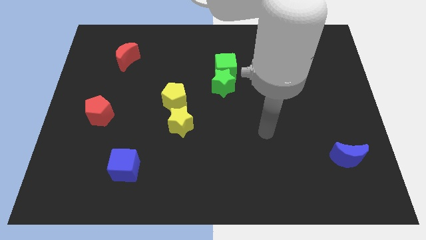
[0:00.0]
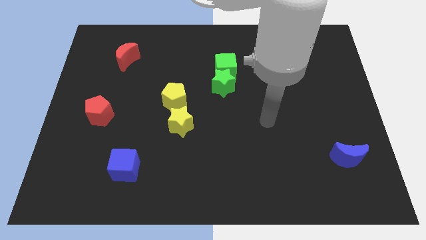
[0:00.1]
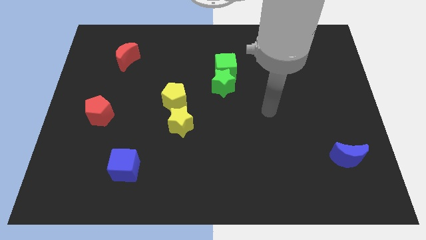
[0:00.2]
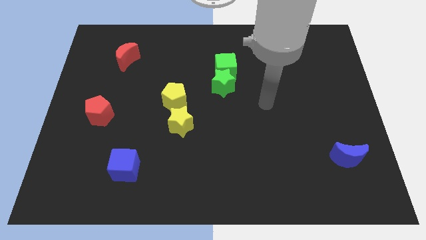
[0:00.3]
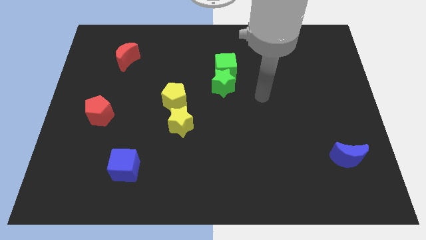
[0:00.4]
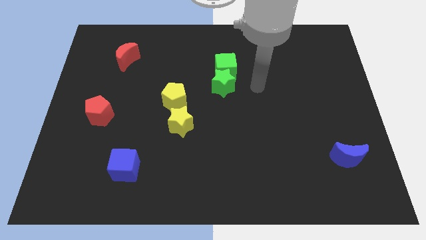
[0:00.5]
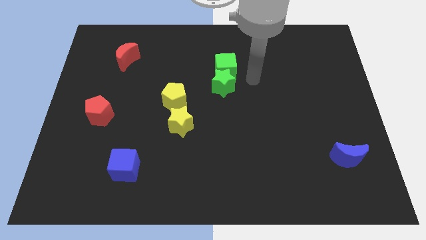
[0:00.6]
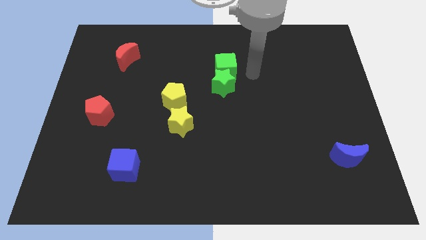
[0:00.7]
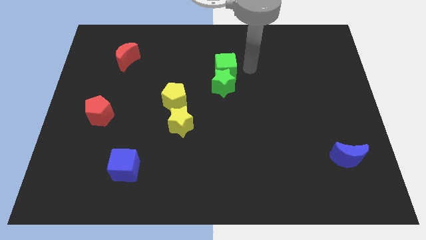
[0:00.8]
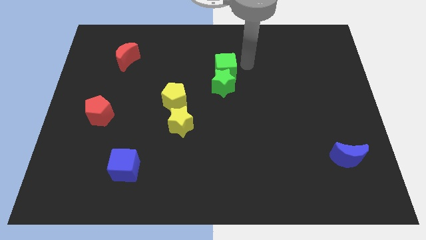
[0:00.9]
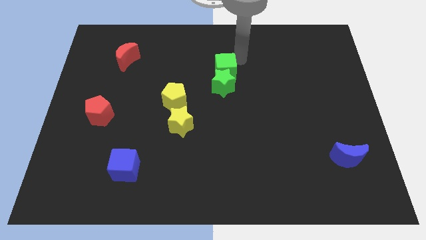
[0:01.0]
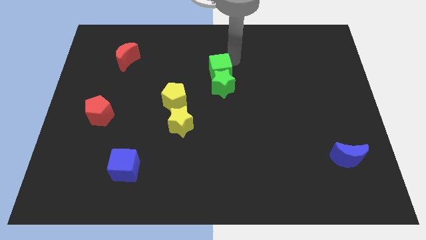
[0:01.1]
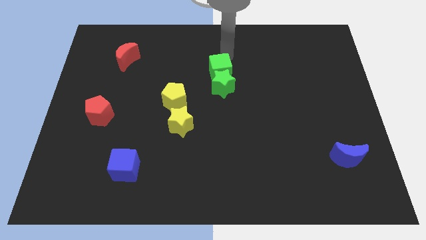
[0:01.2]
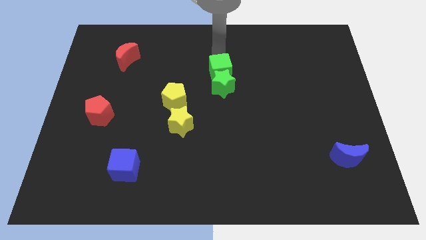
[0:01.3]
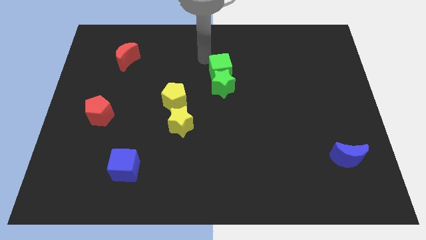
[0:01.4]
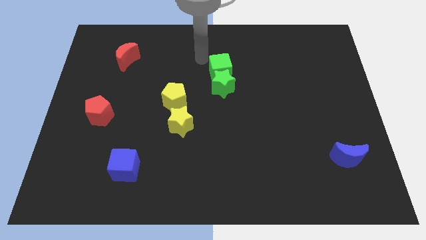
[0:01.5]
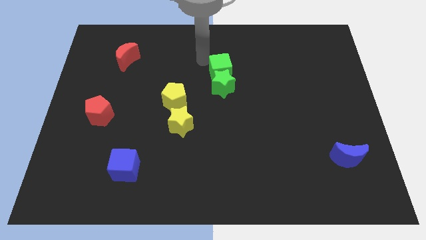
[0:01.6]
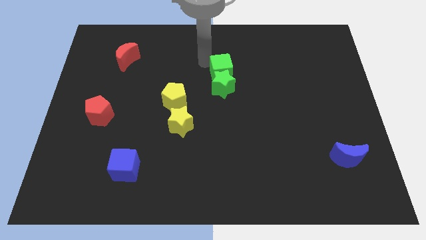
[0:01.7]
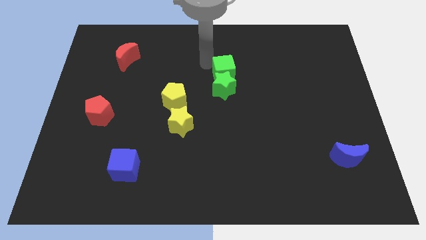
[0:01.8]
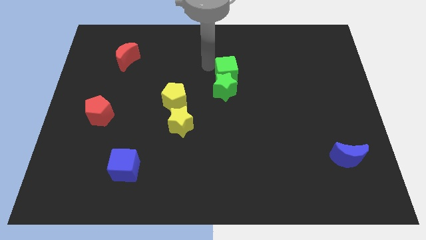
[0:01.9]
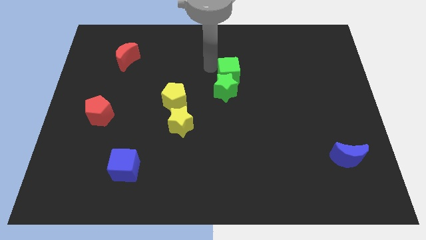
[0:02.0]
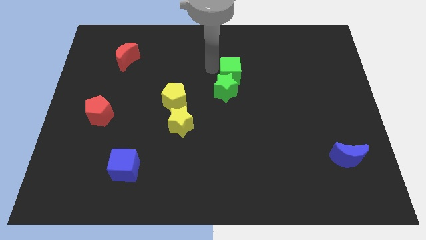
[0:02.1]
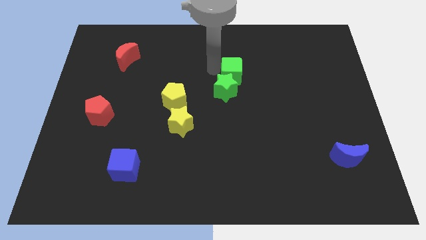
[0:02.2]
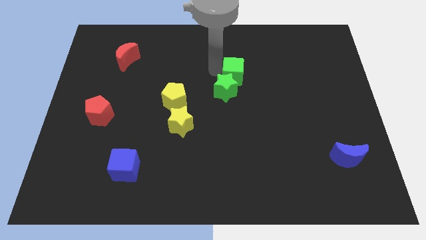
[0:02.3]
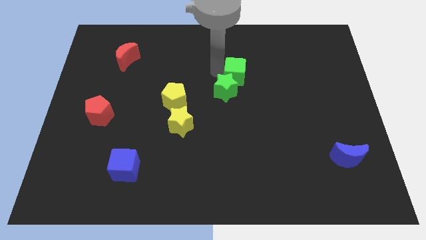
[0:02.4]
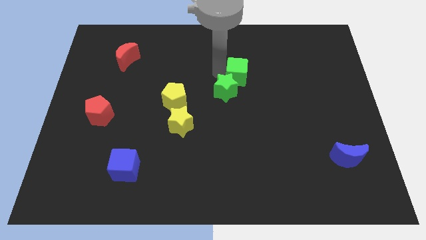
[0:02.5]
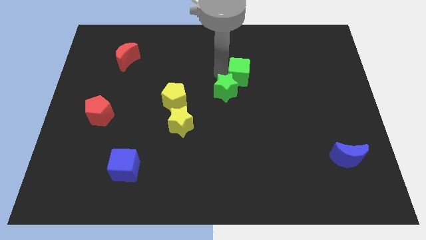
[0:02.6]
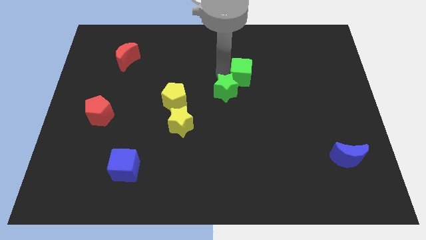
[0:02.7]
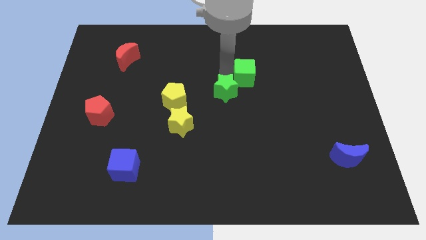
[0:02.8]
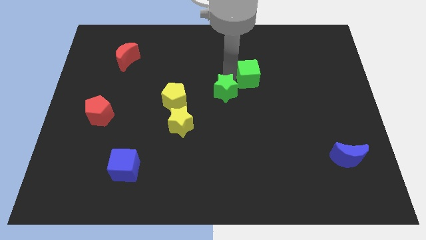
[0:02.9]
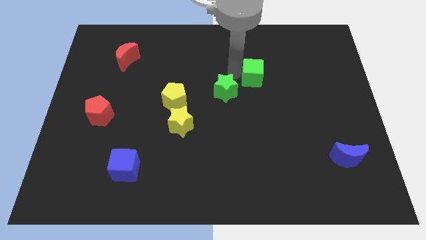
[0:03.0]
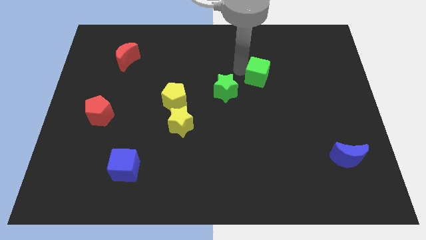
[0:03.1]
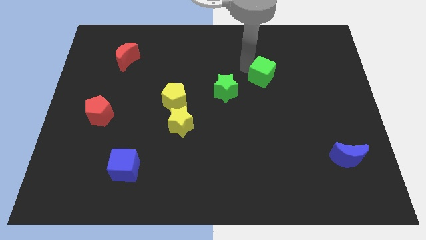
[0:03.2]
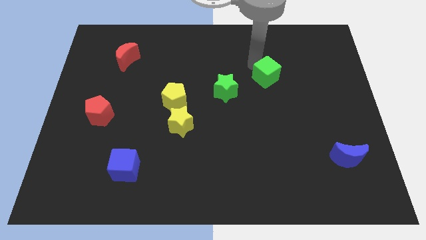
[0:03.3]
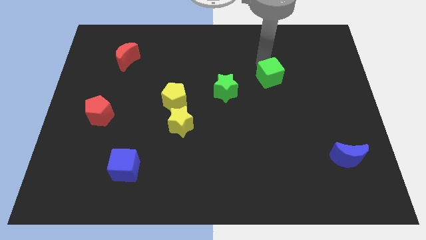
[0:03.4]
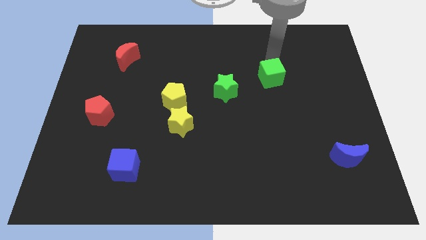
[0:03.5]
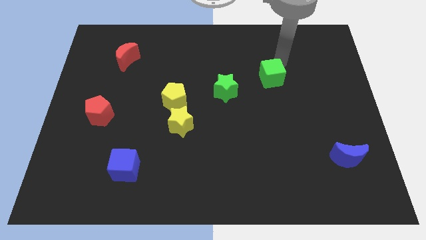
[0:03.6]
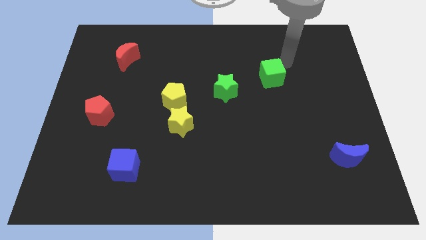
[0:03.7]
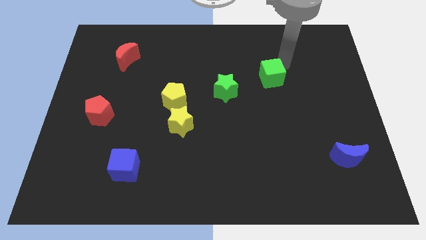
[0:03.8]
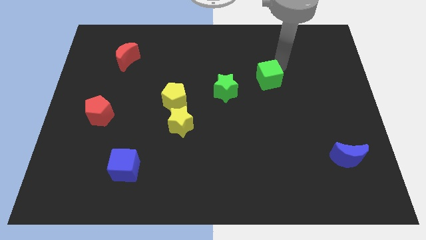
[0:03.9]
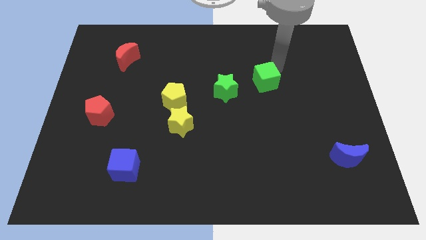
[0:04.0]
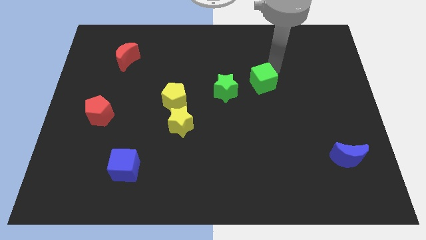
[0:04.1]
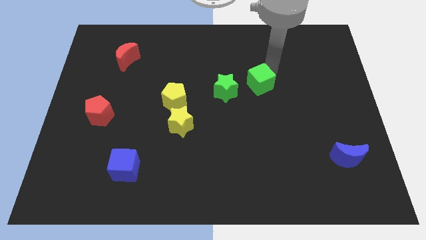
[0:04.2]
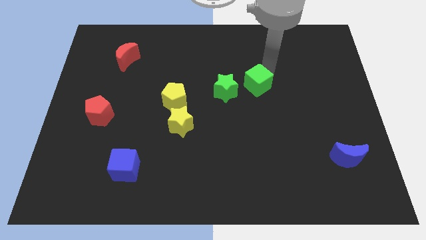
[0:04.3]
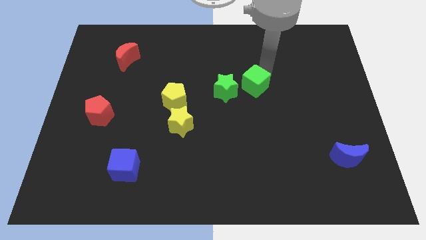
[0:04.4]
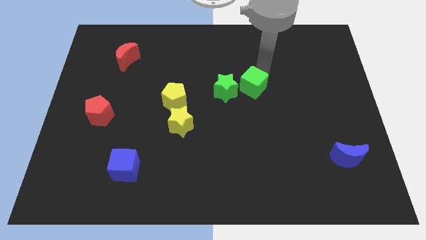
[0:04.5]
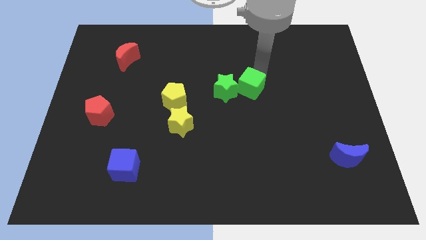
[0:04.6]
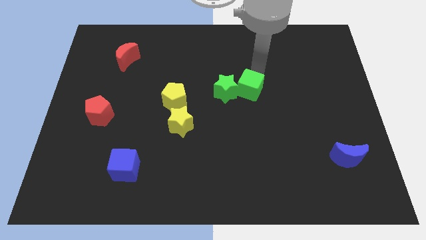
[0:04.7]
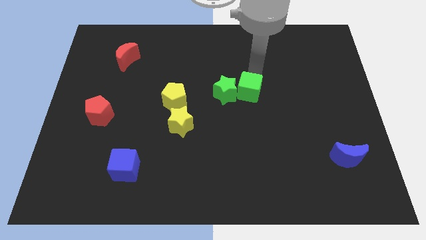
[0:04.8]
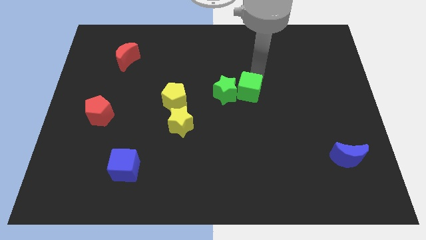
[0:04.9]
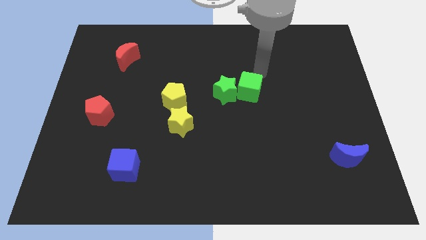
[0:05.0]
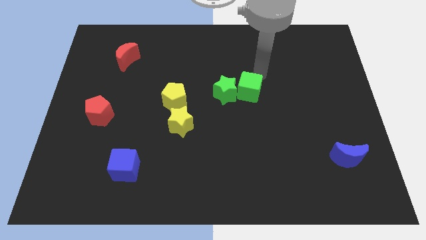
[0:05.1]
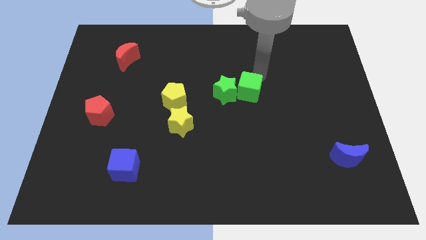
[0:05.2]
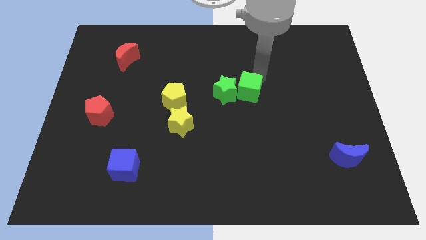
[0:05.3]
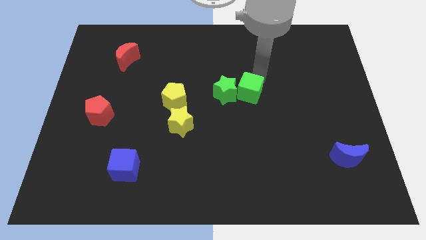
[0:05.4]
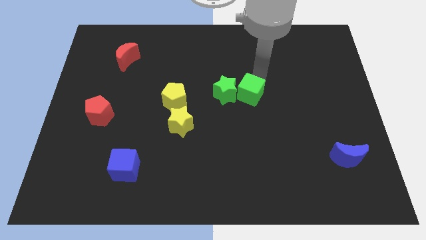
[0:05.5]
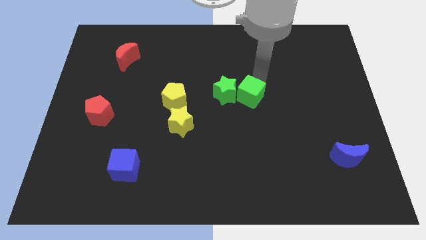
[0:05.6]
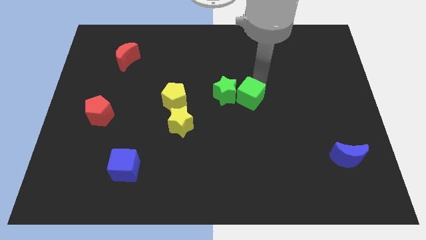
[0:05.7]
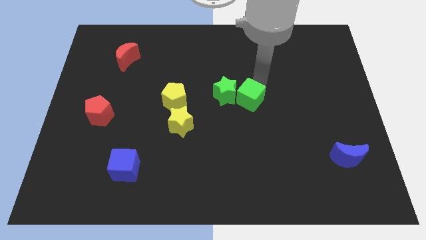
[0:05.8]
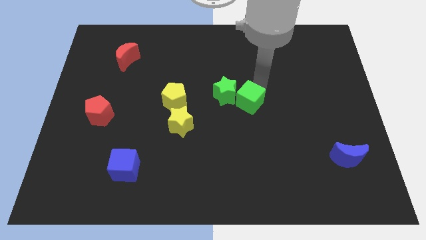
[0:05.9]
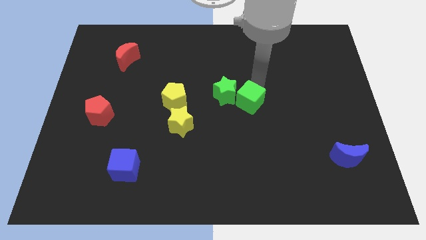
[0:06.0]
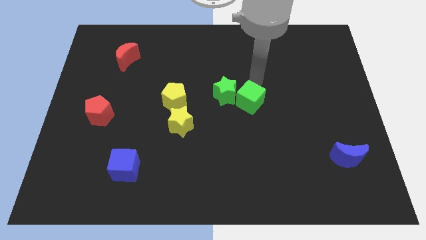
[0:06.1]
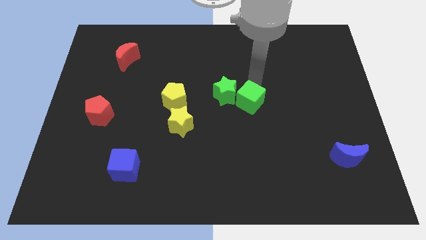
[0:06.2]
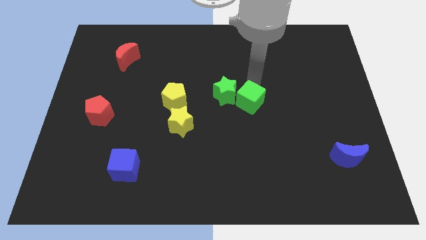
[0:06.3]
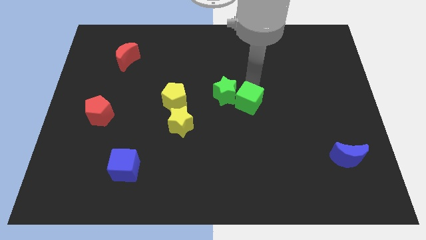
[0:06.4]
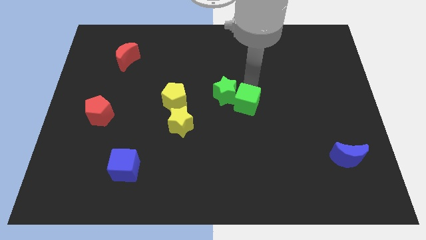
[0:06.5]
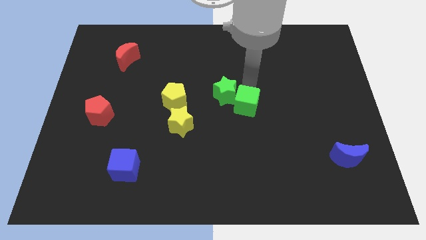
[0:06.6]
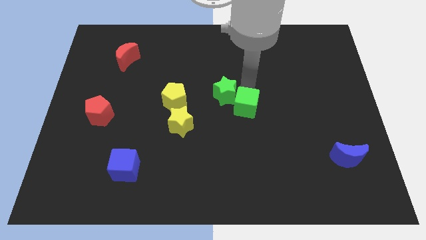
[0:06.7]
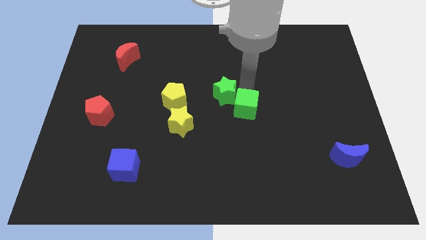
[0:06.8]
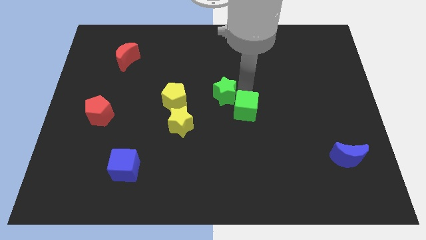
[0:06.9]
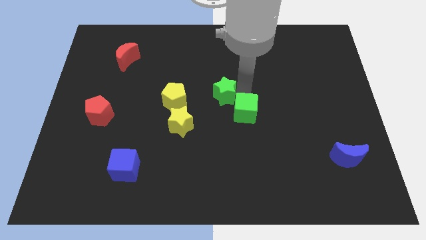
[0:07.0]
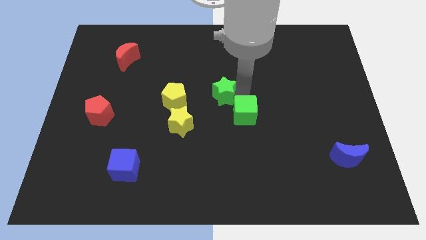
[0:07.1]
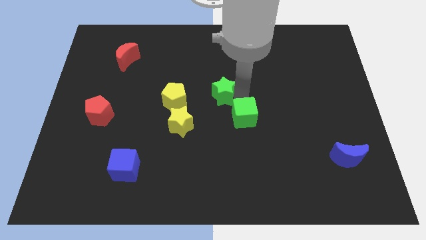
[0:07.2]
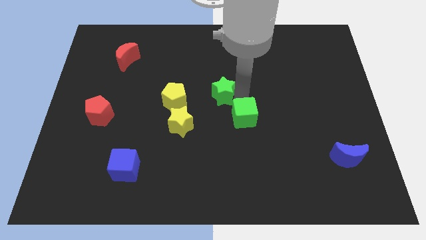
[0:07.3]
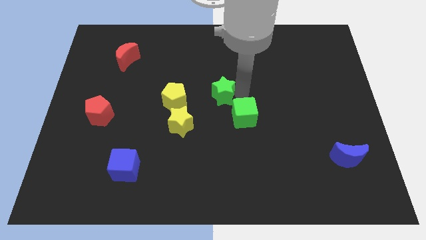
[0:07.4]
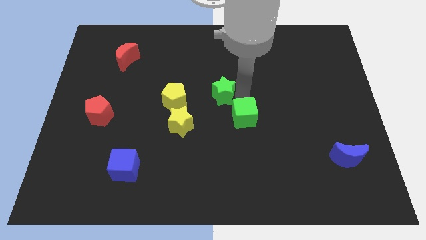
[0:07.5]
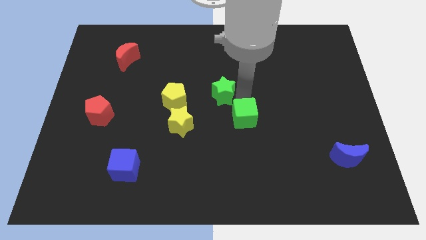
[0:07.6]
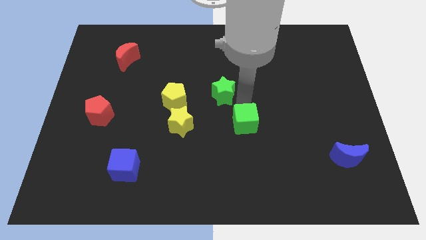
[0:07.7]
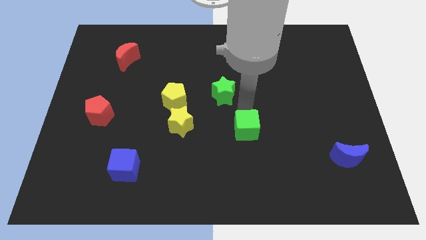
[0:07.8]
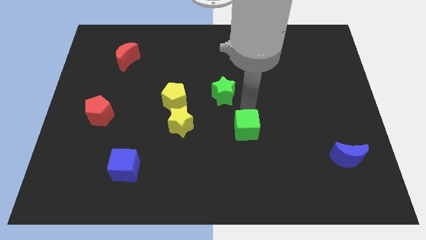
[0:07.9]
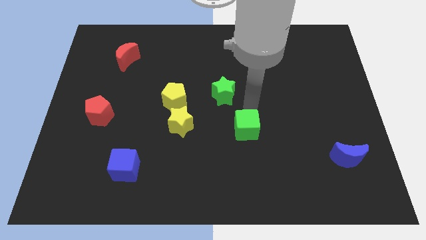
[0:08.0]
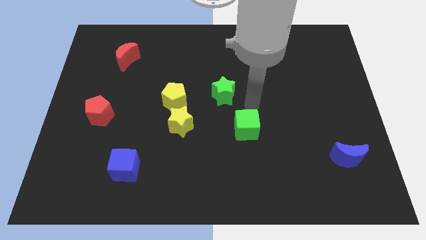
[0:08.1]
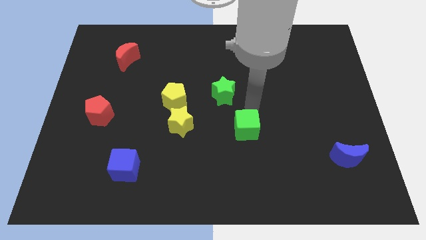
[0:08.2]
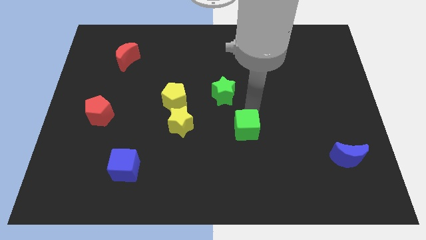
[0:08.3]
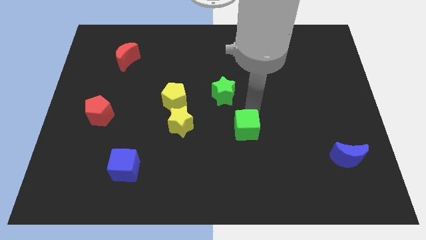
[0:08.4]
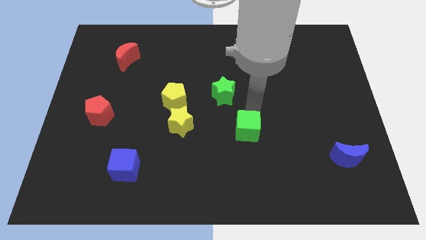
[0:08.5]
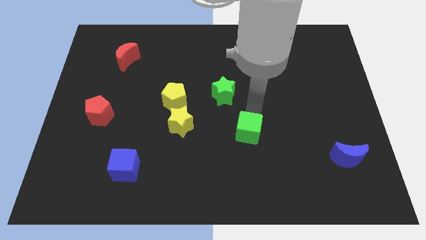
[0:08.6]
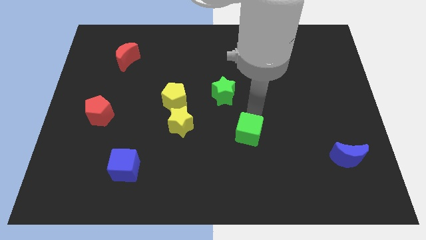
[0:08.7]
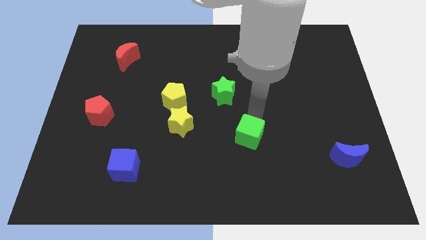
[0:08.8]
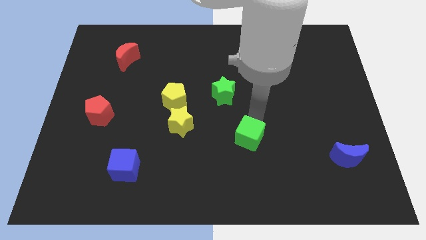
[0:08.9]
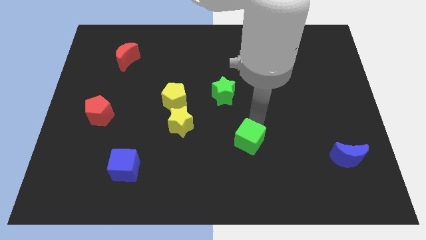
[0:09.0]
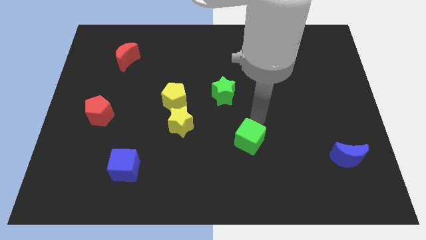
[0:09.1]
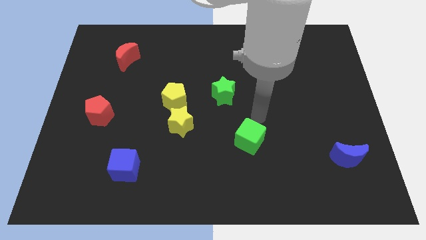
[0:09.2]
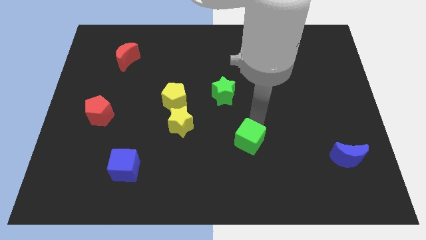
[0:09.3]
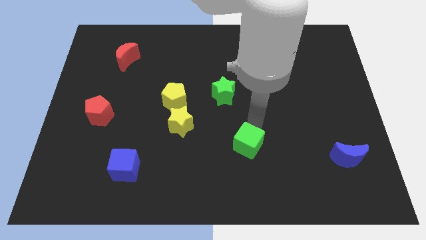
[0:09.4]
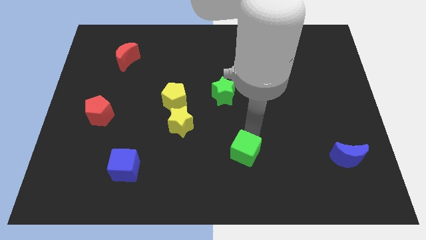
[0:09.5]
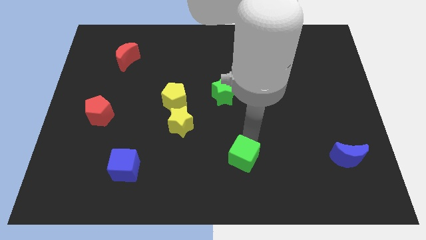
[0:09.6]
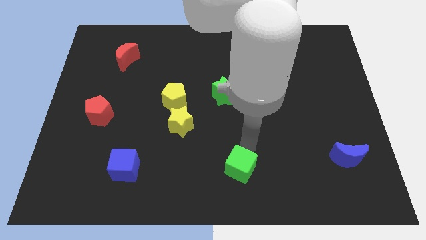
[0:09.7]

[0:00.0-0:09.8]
push the green cube to the bottom side
